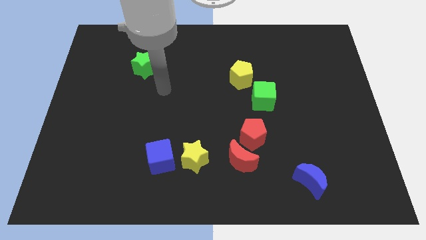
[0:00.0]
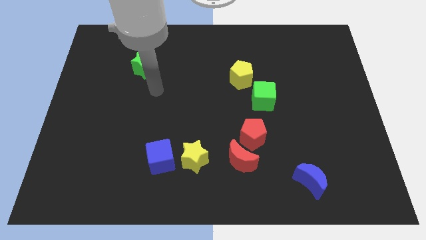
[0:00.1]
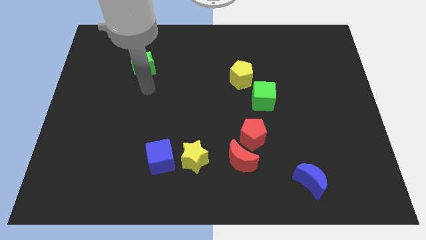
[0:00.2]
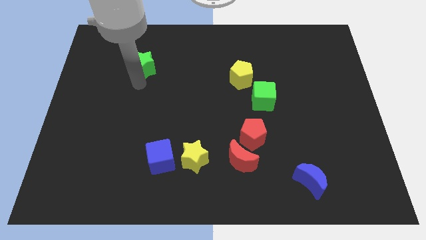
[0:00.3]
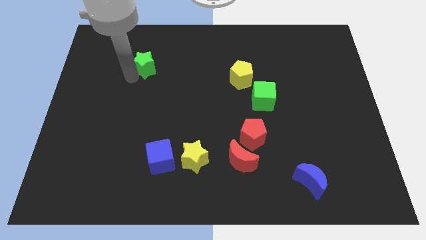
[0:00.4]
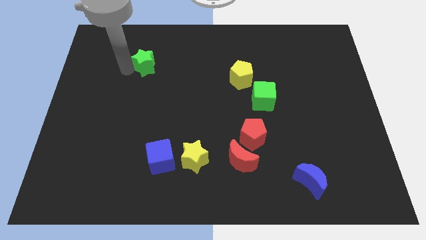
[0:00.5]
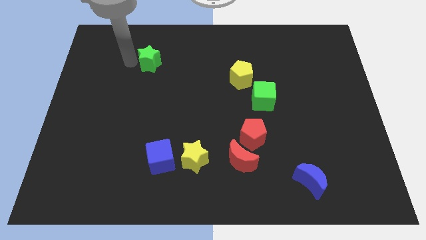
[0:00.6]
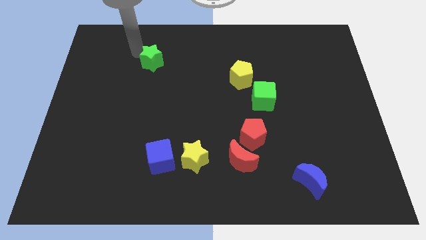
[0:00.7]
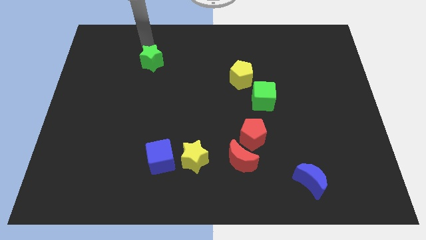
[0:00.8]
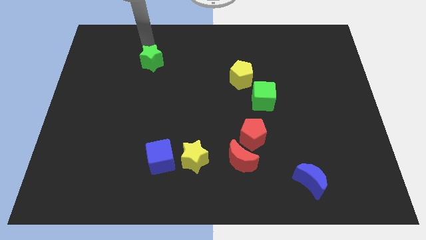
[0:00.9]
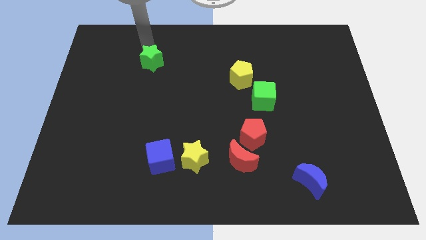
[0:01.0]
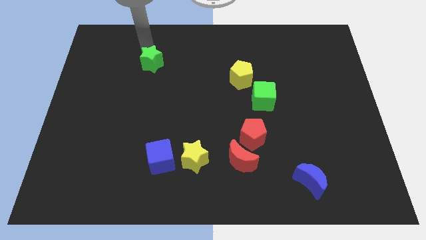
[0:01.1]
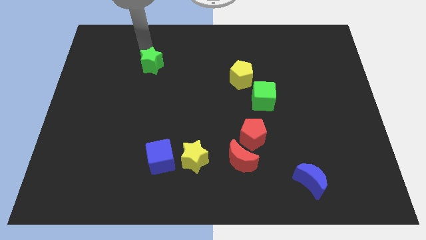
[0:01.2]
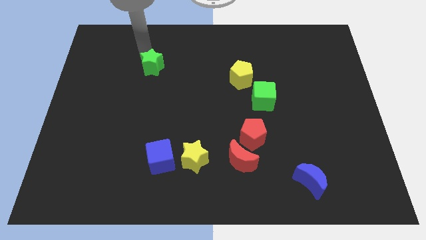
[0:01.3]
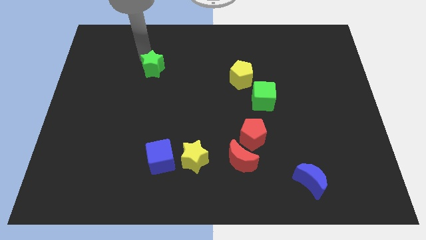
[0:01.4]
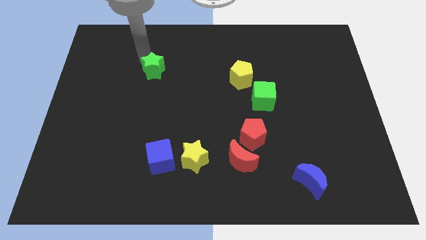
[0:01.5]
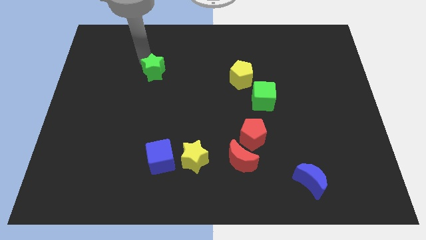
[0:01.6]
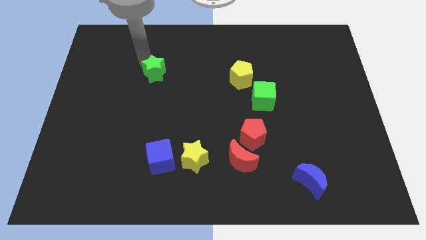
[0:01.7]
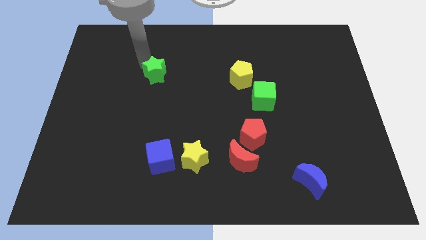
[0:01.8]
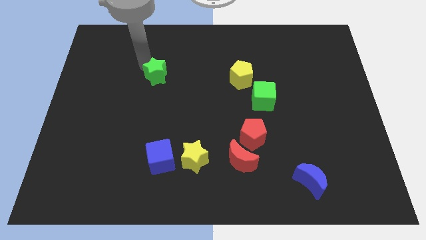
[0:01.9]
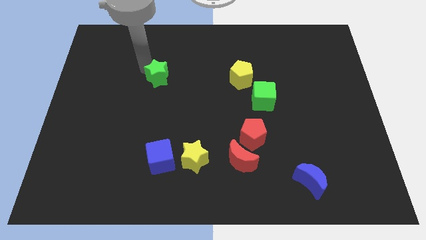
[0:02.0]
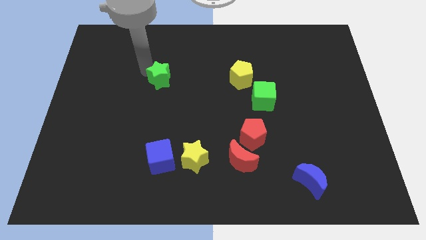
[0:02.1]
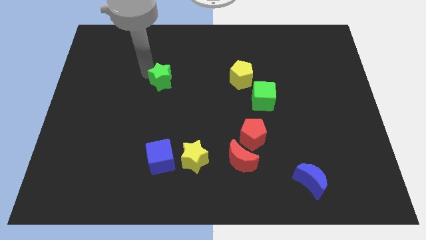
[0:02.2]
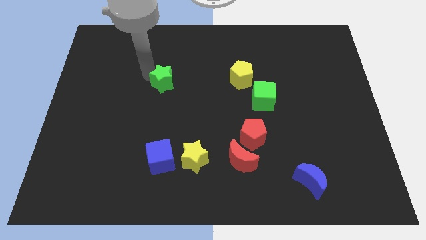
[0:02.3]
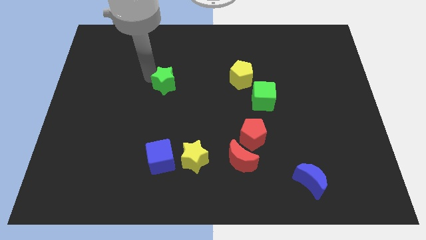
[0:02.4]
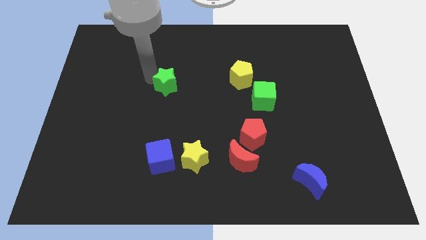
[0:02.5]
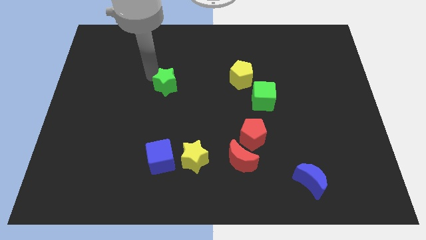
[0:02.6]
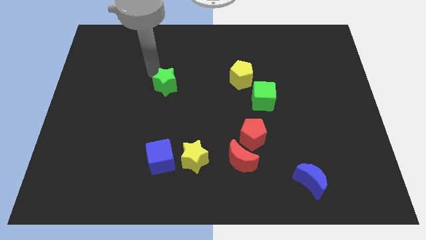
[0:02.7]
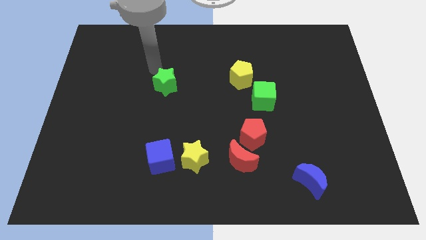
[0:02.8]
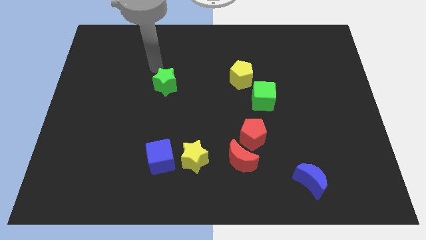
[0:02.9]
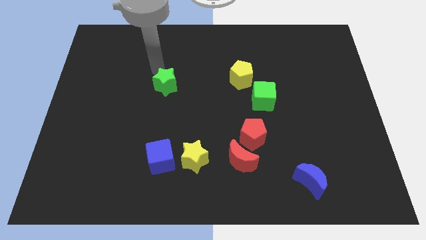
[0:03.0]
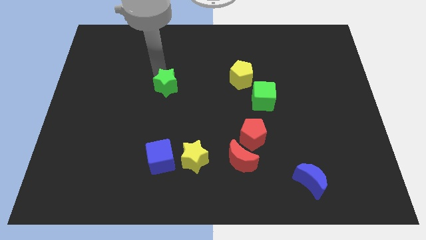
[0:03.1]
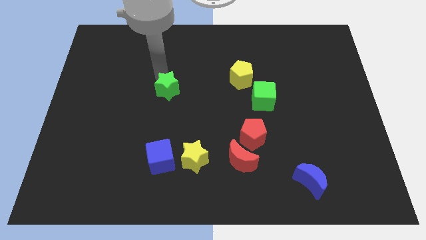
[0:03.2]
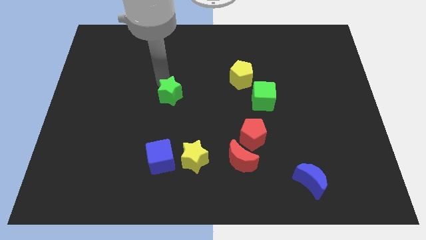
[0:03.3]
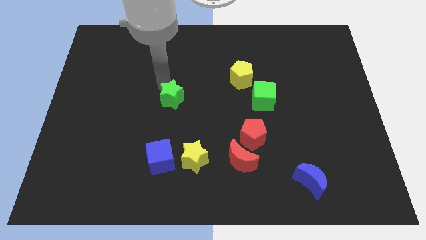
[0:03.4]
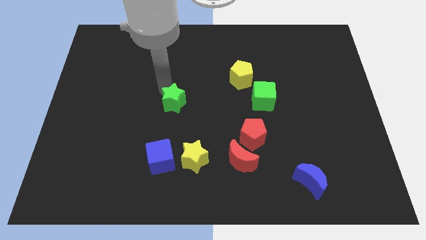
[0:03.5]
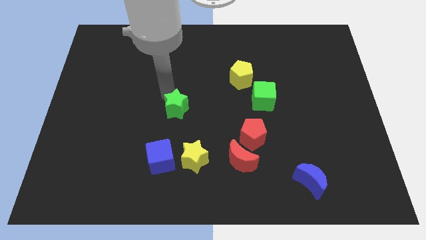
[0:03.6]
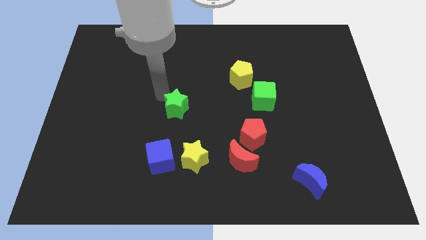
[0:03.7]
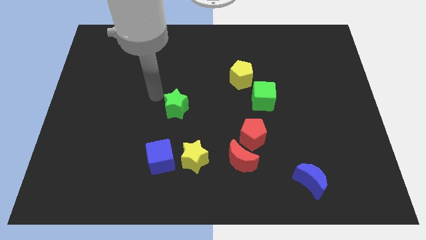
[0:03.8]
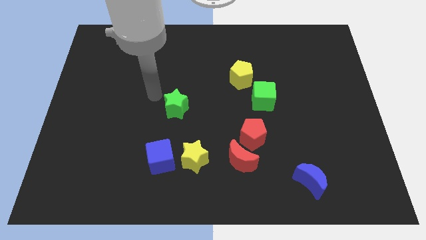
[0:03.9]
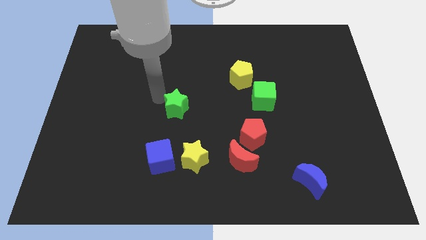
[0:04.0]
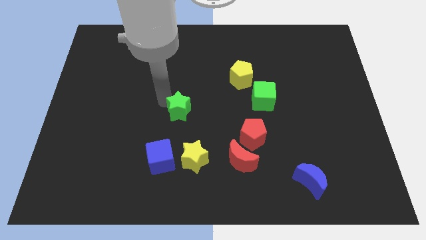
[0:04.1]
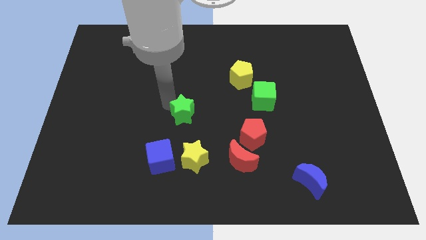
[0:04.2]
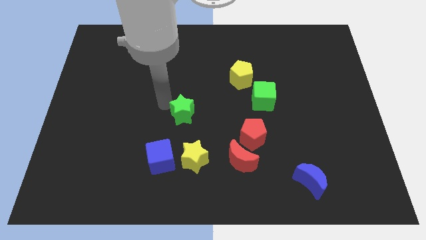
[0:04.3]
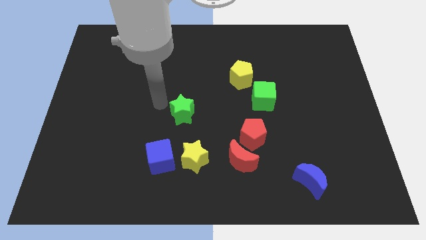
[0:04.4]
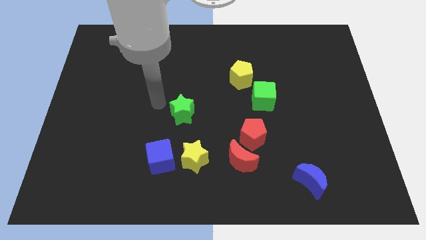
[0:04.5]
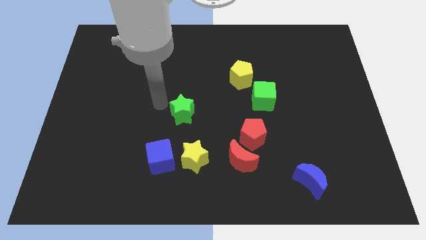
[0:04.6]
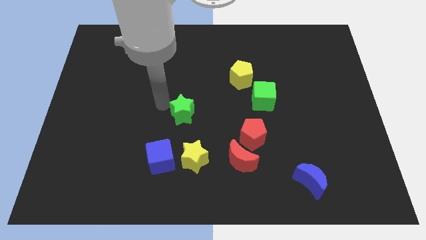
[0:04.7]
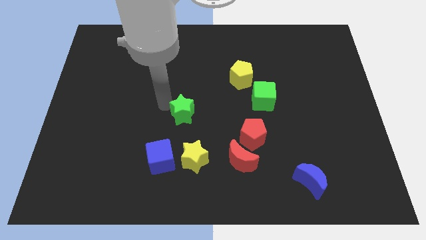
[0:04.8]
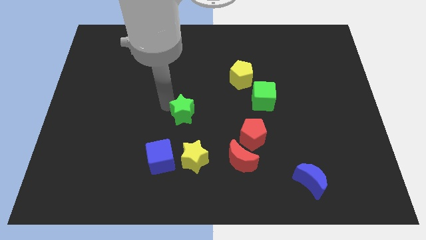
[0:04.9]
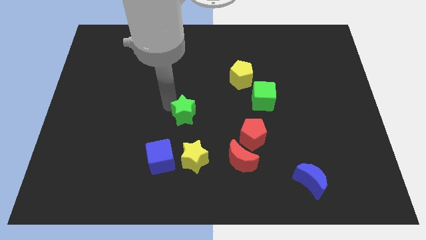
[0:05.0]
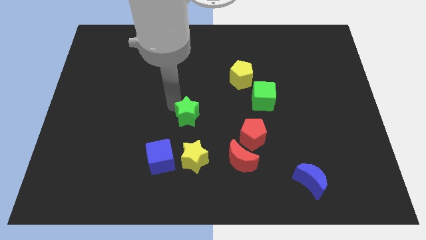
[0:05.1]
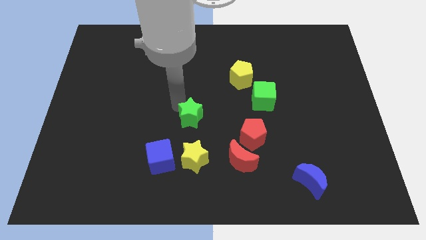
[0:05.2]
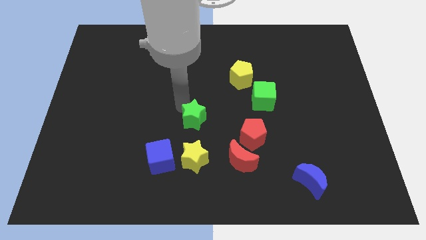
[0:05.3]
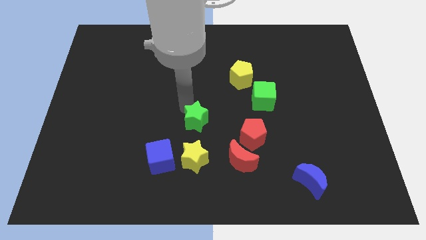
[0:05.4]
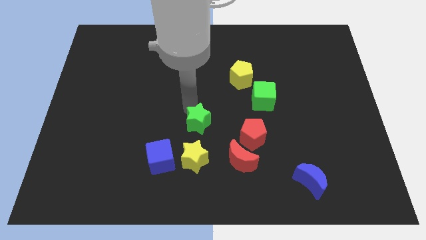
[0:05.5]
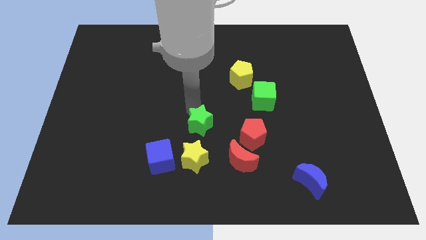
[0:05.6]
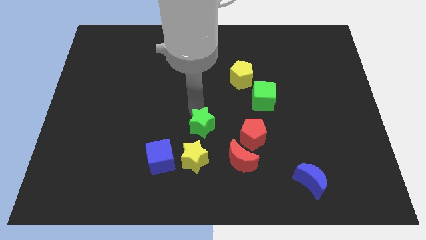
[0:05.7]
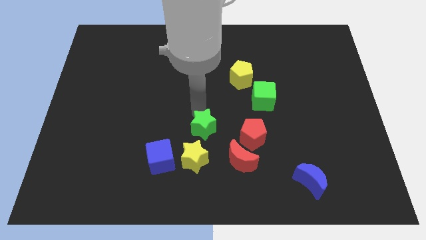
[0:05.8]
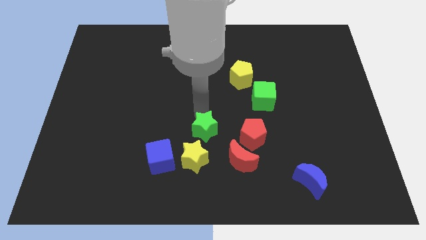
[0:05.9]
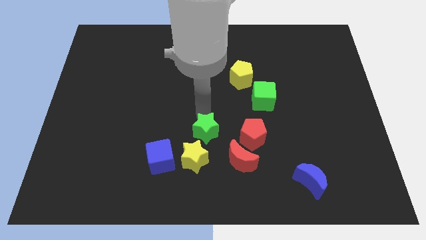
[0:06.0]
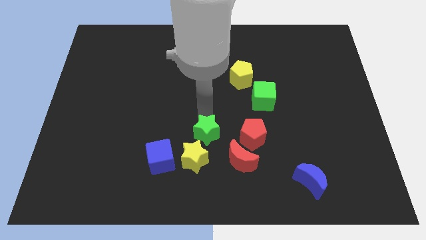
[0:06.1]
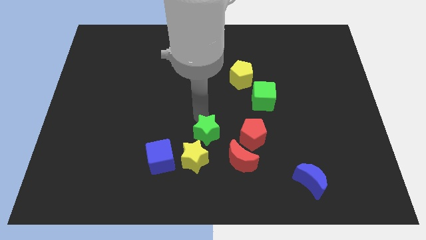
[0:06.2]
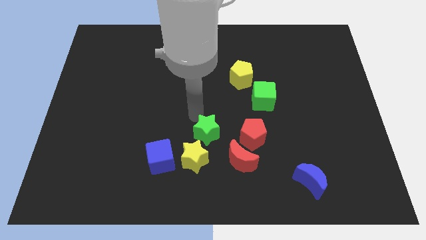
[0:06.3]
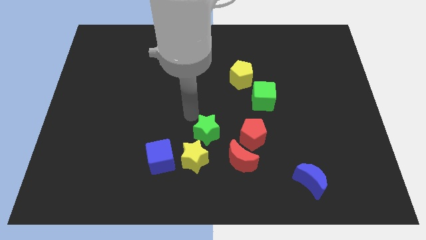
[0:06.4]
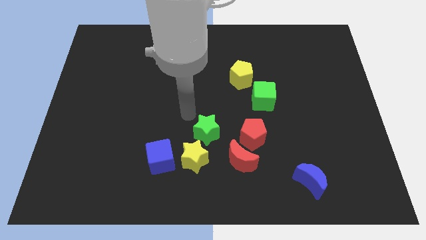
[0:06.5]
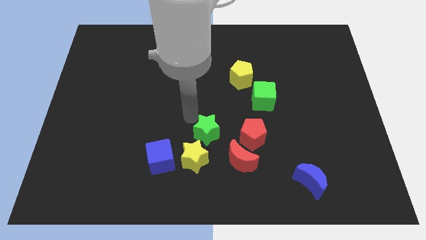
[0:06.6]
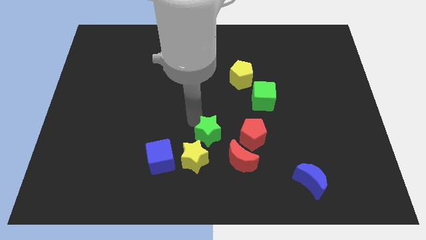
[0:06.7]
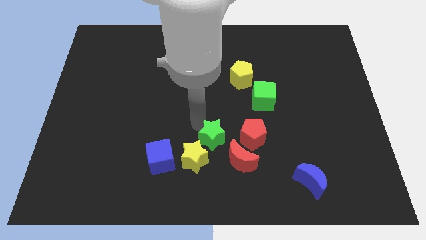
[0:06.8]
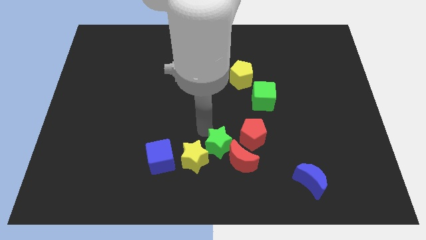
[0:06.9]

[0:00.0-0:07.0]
slide the green star to the red moon

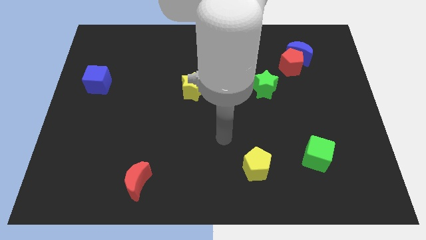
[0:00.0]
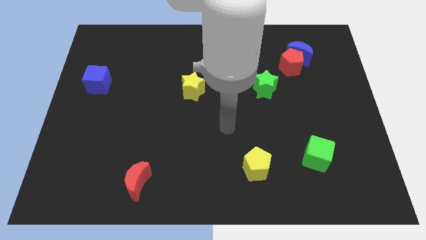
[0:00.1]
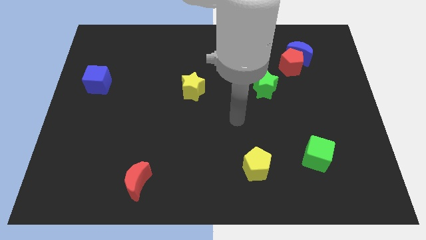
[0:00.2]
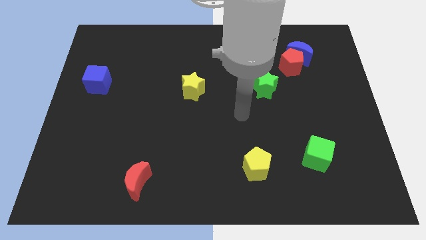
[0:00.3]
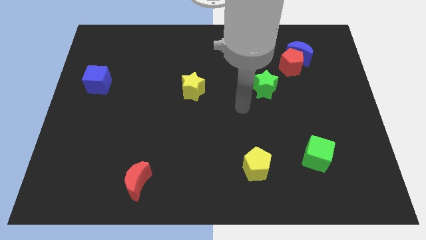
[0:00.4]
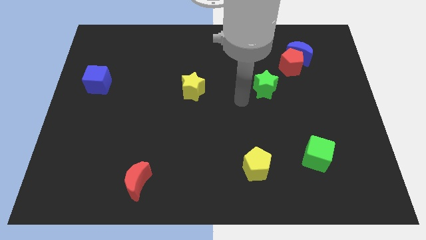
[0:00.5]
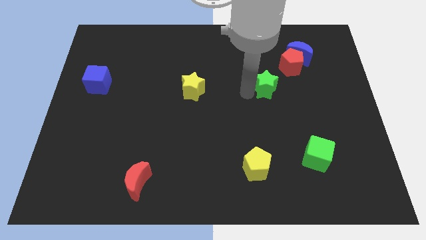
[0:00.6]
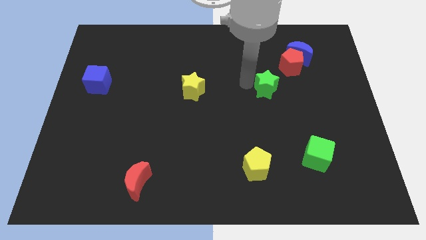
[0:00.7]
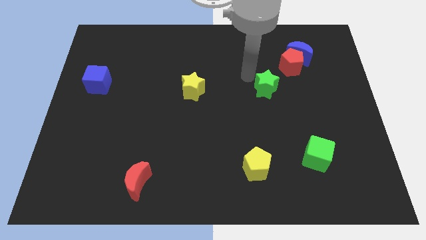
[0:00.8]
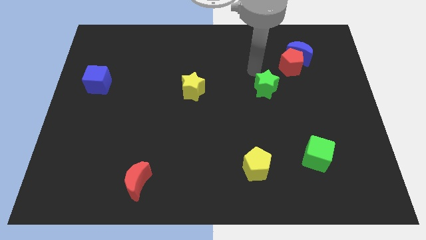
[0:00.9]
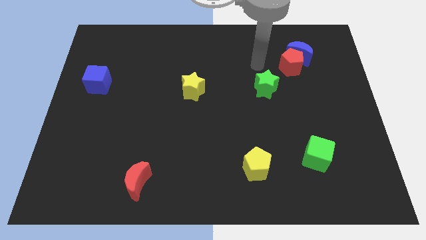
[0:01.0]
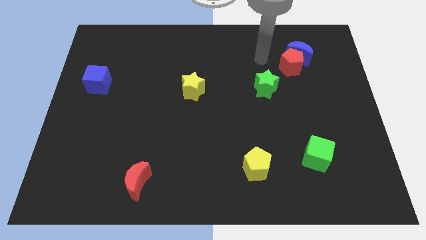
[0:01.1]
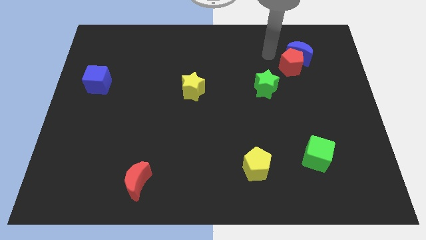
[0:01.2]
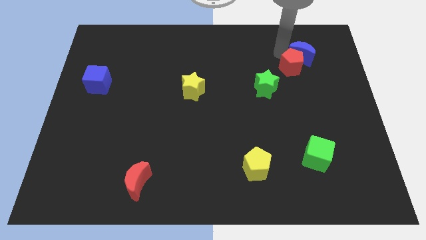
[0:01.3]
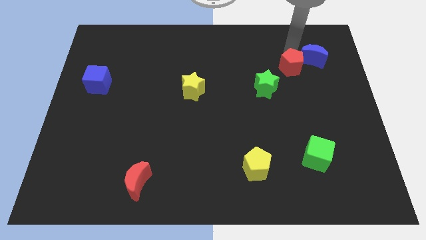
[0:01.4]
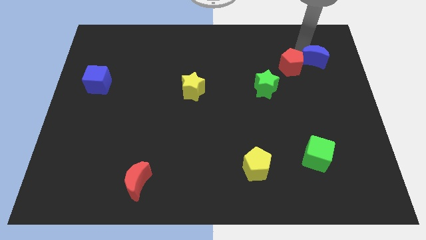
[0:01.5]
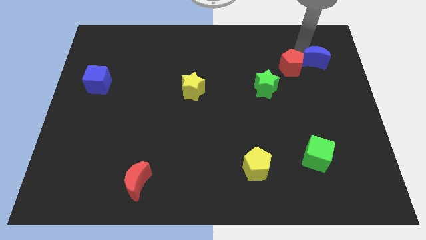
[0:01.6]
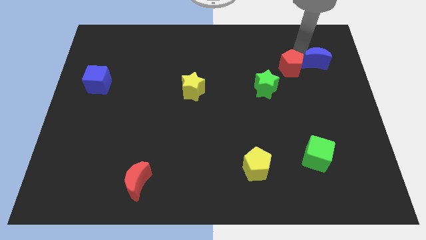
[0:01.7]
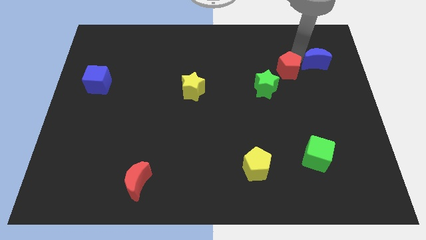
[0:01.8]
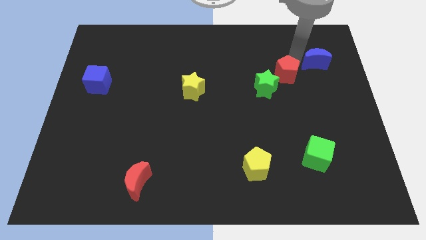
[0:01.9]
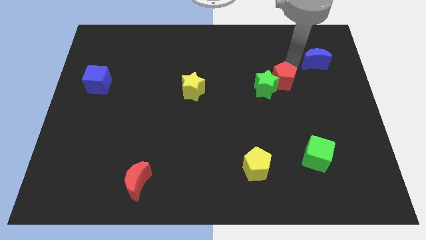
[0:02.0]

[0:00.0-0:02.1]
push the red pentagon to the green star
